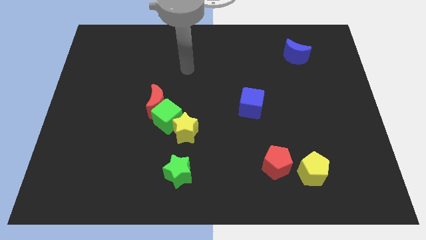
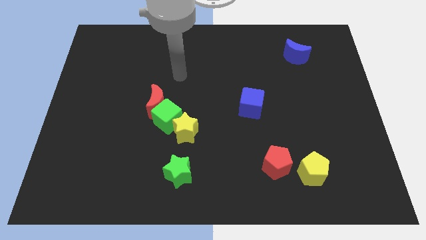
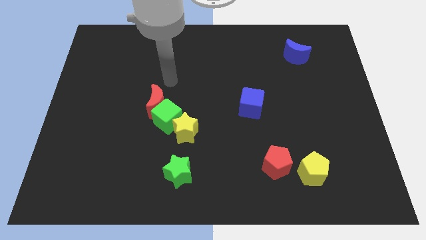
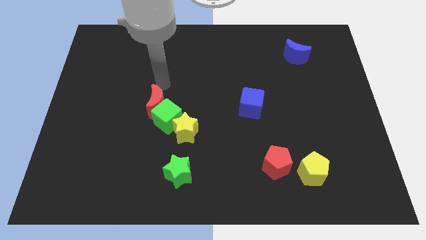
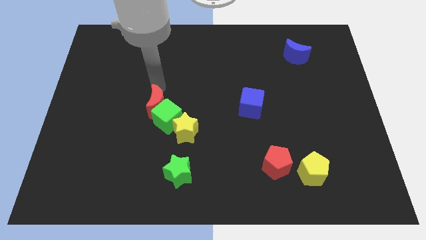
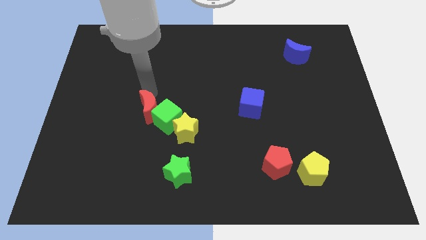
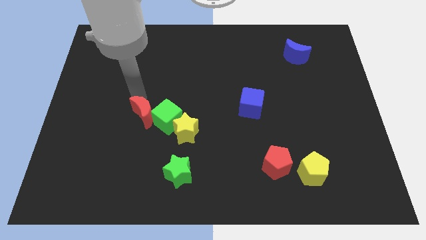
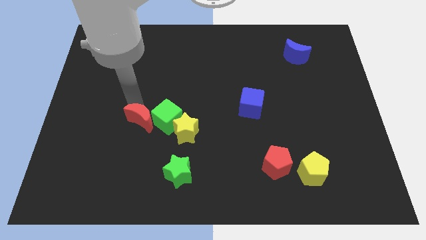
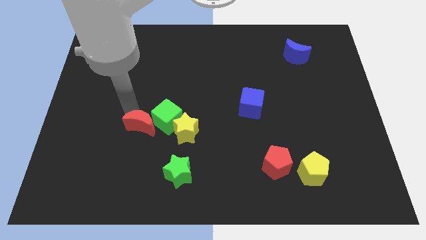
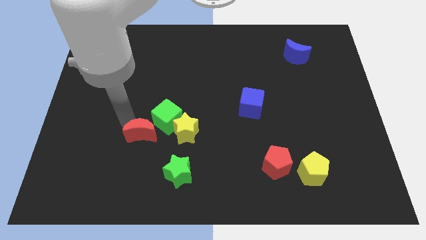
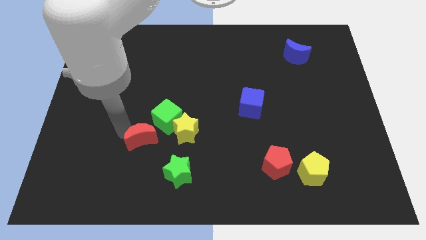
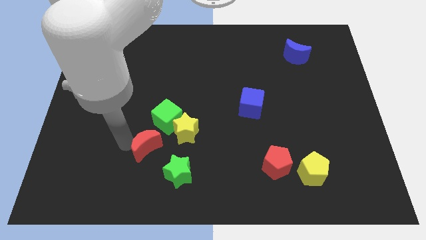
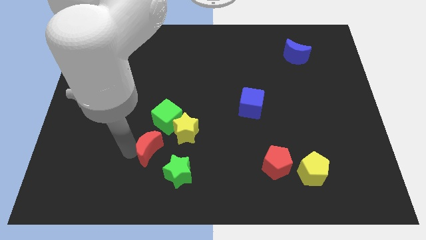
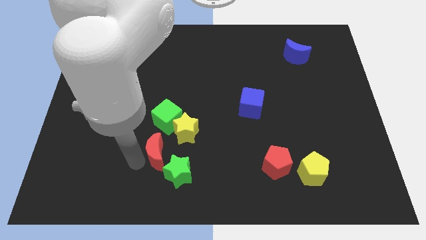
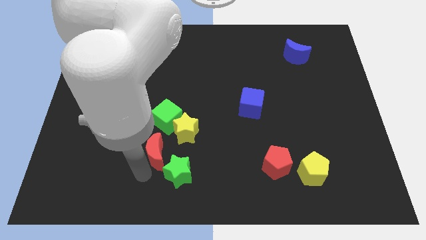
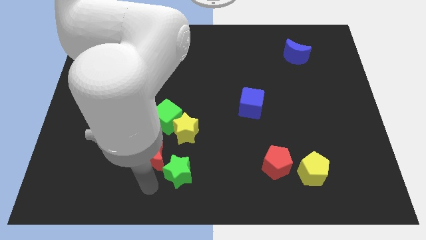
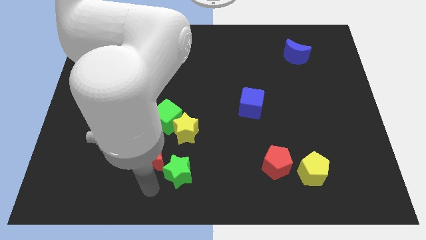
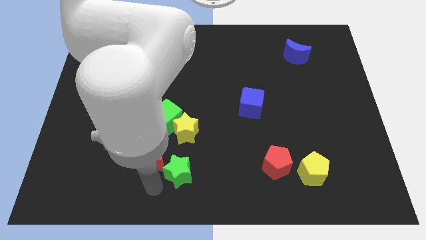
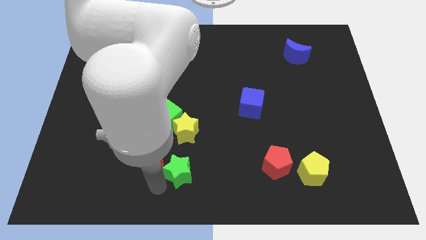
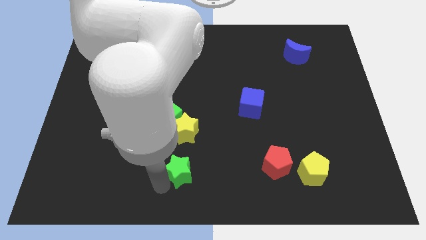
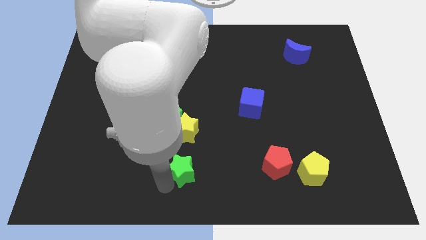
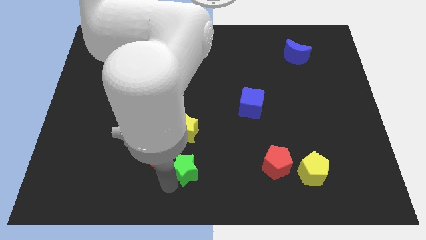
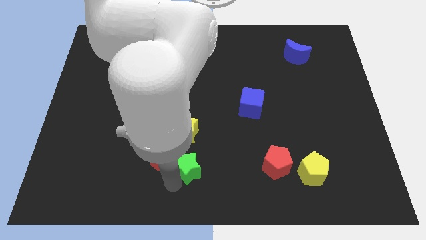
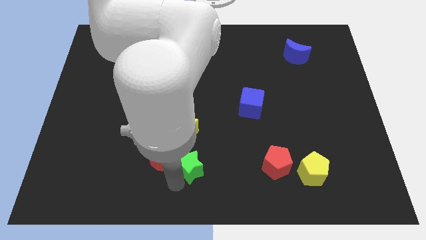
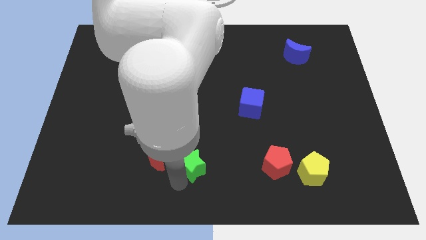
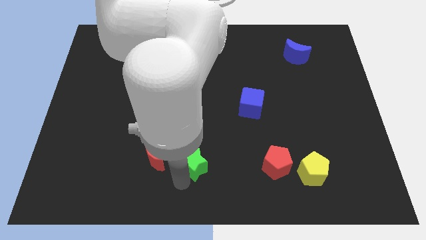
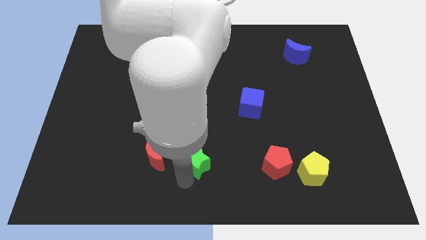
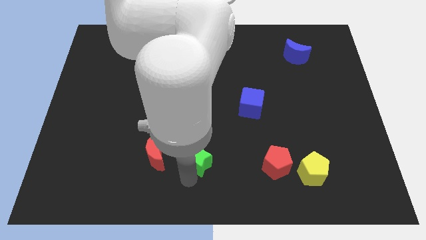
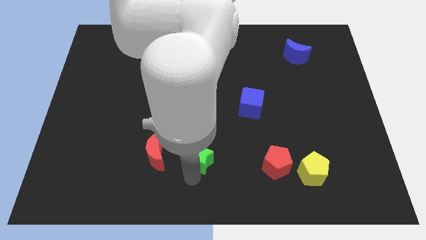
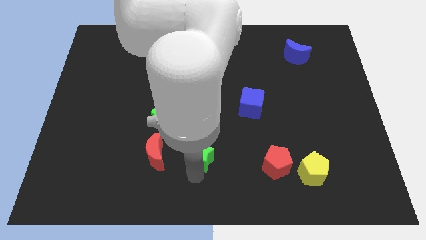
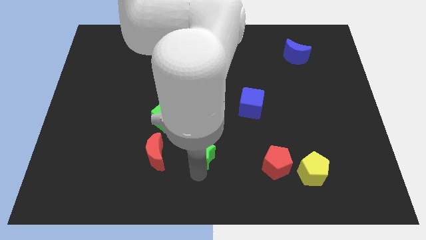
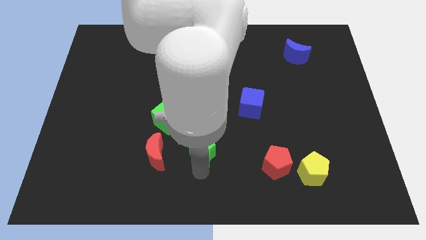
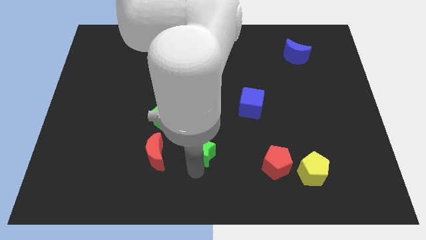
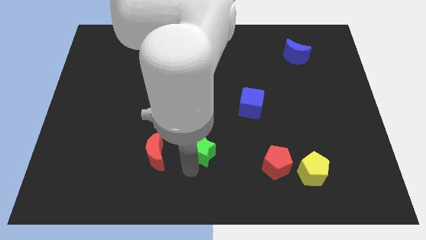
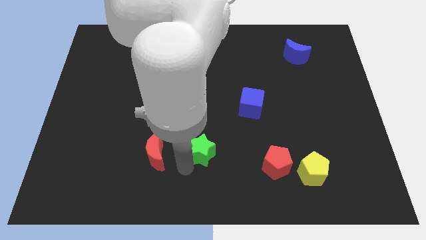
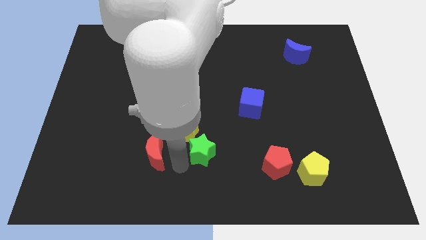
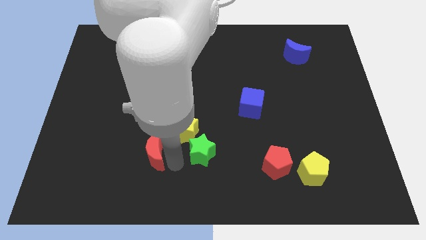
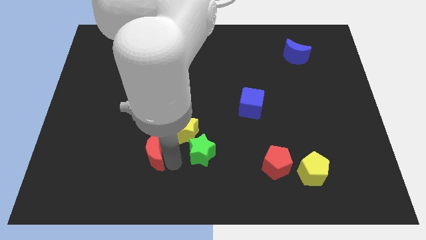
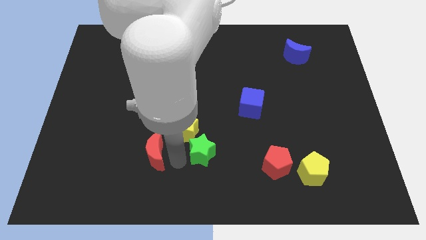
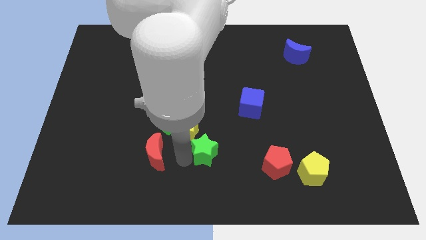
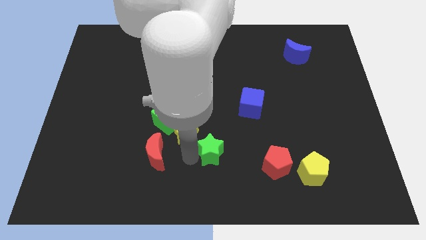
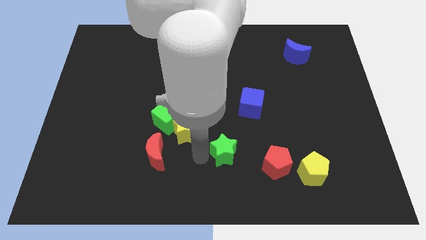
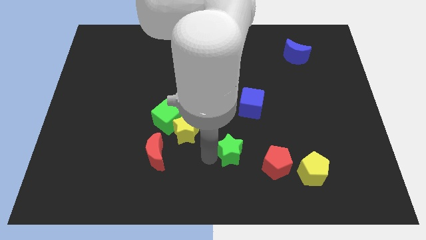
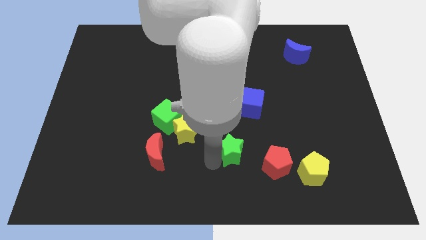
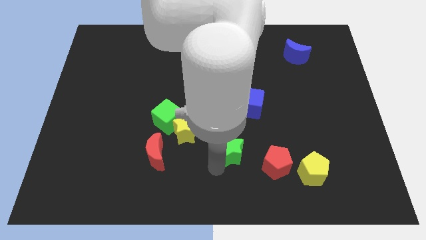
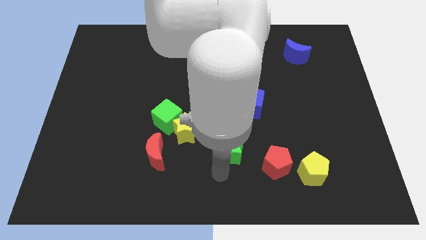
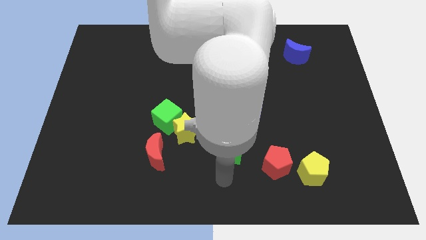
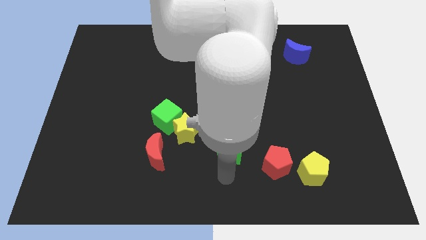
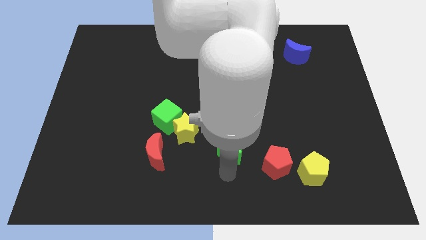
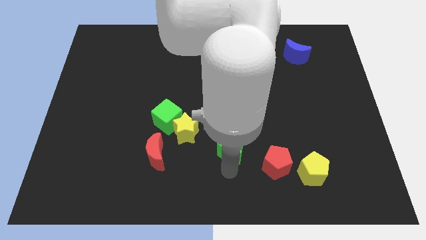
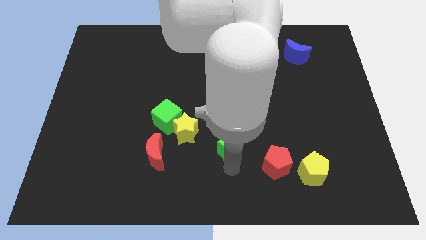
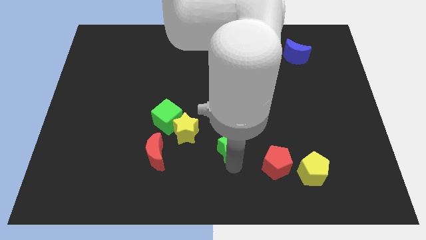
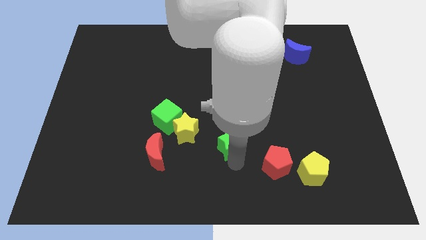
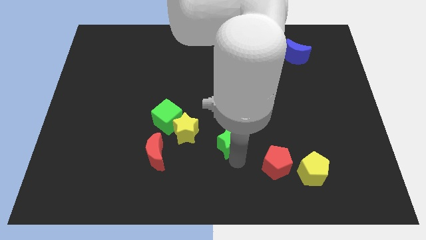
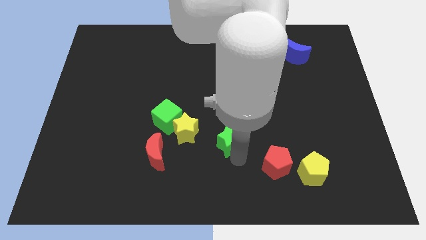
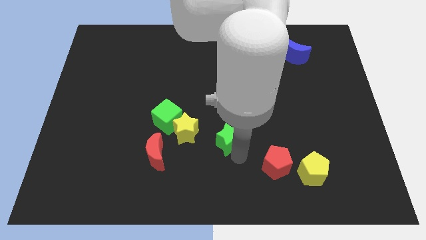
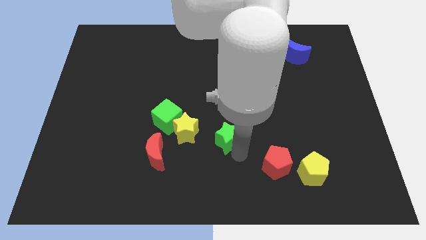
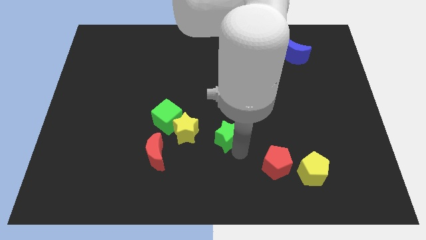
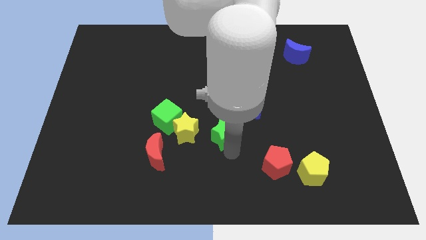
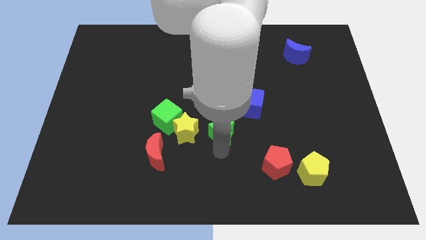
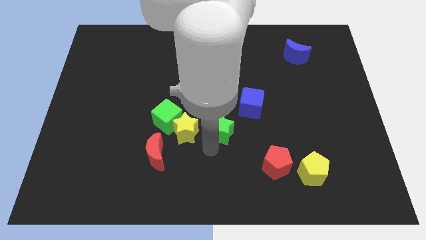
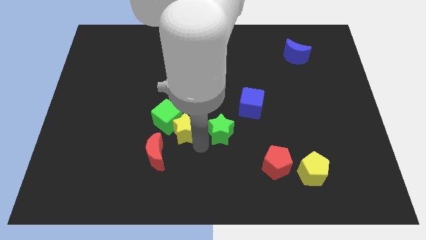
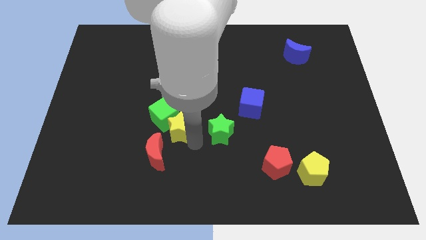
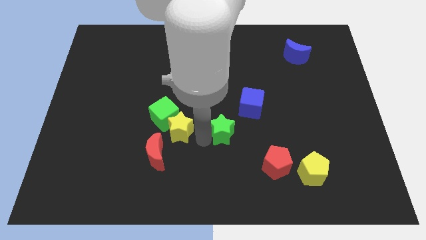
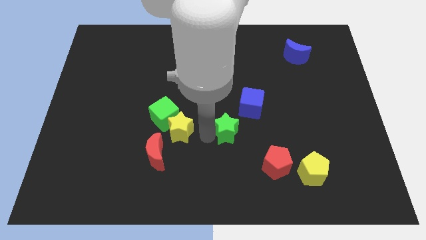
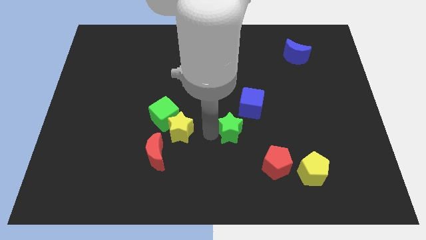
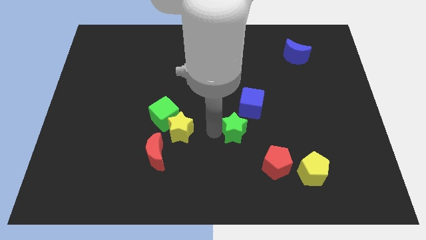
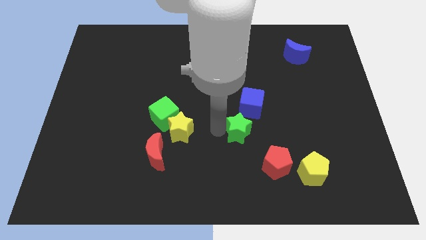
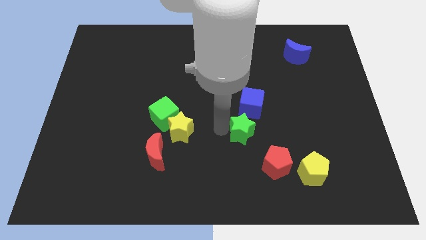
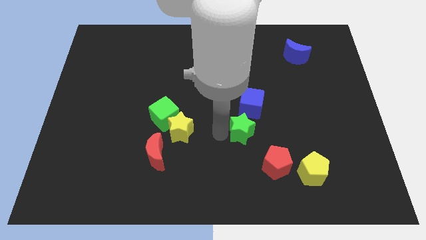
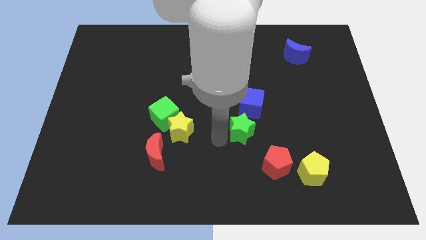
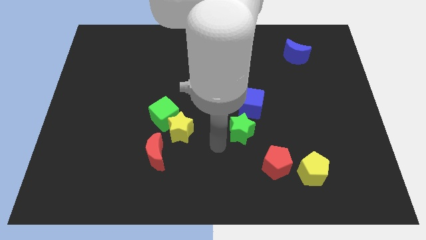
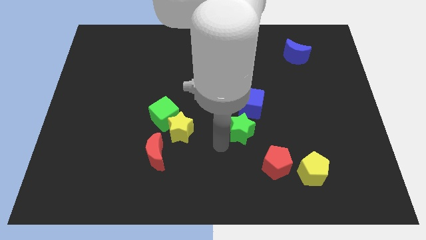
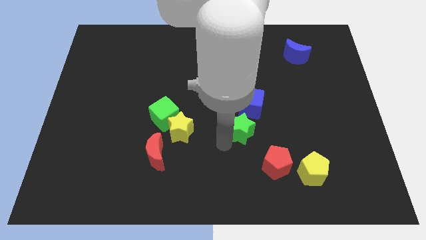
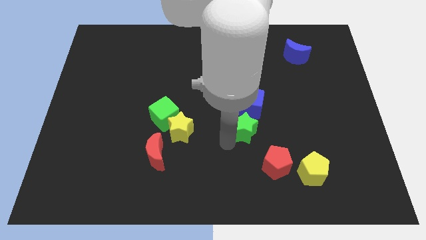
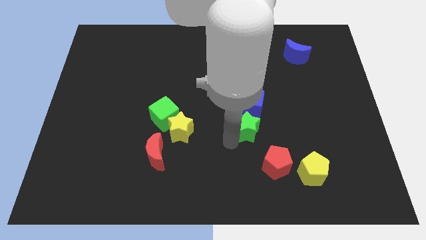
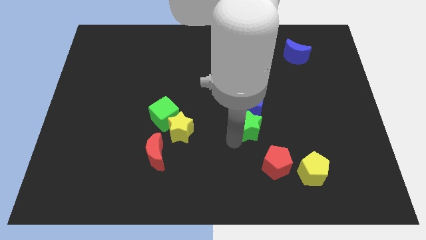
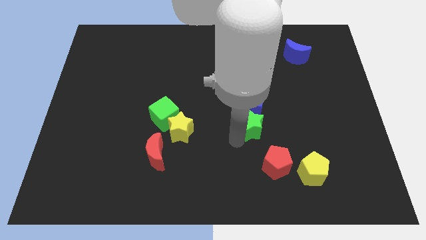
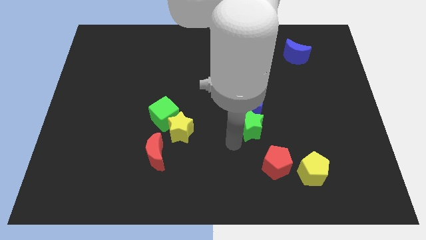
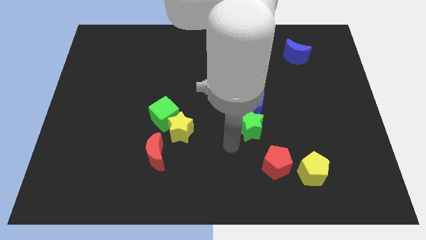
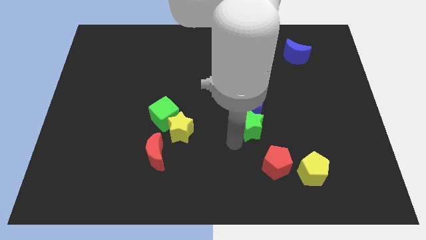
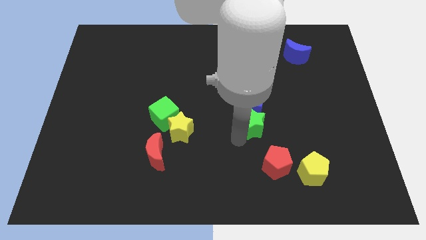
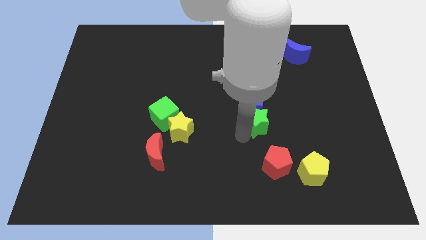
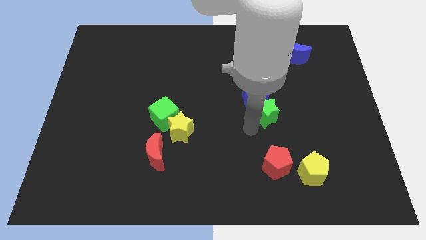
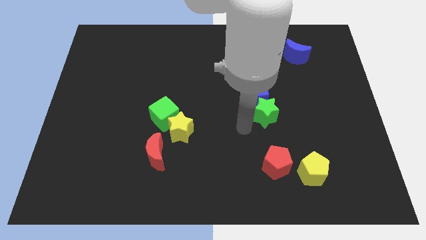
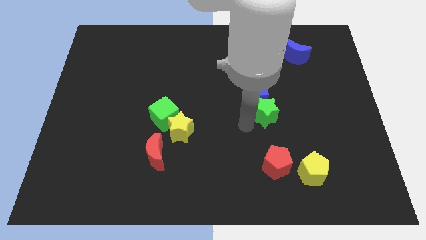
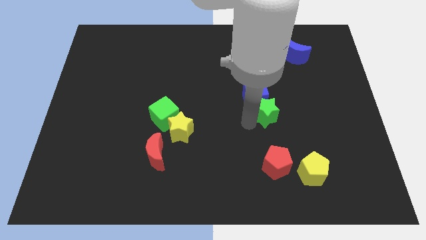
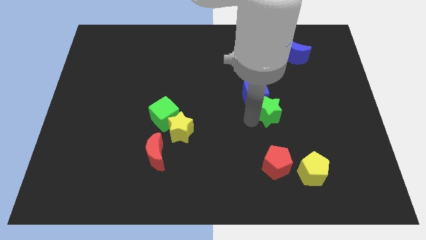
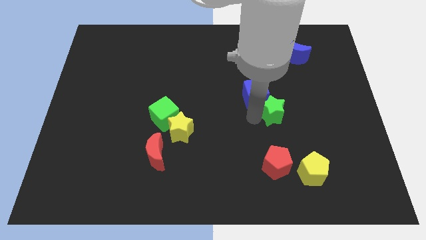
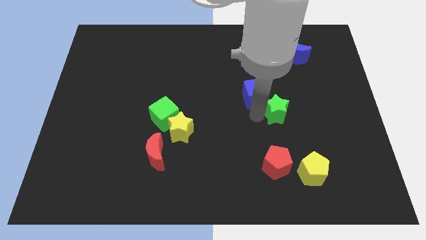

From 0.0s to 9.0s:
move the green star right of the blue cube
